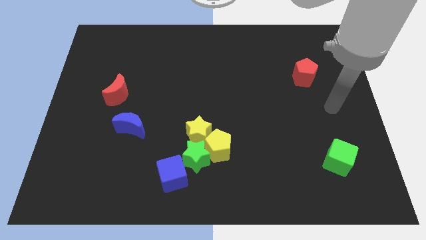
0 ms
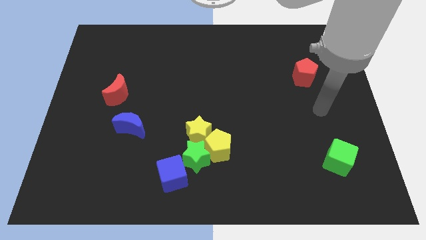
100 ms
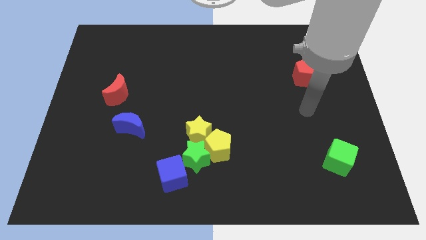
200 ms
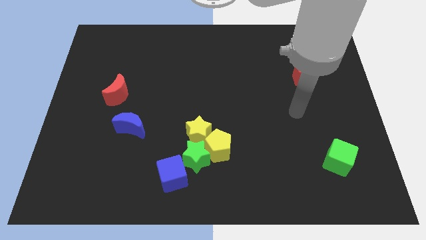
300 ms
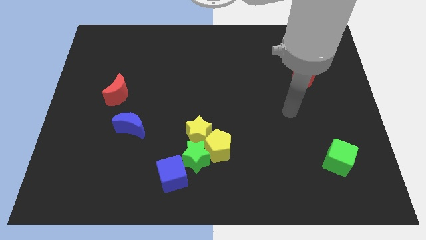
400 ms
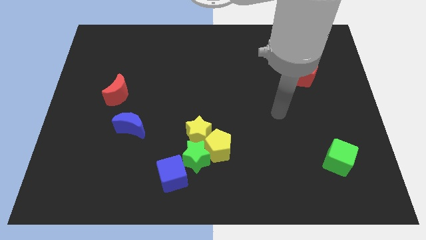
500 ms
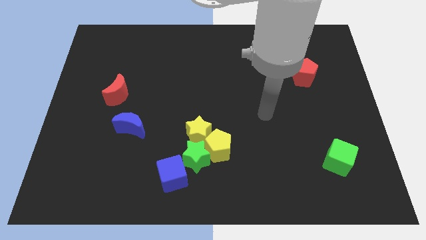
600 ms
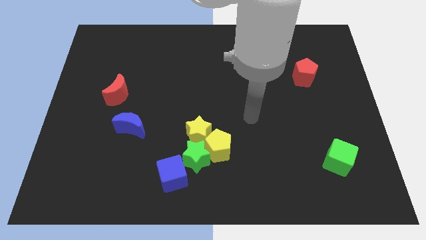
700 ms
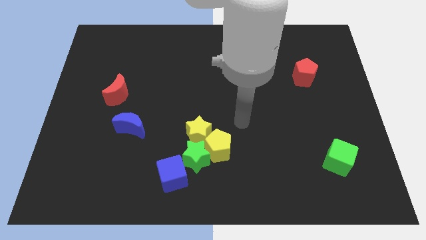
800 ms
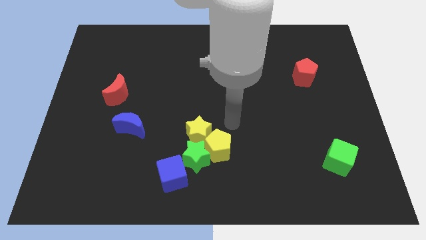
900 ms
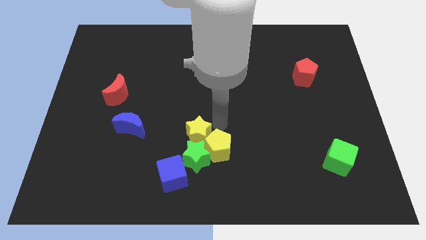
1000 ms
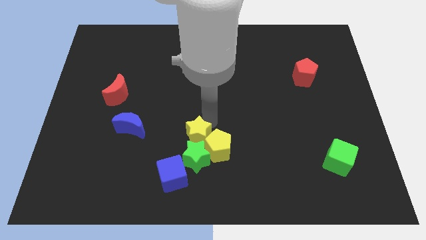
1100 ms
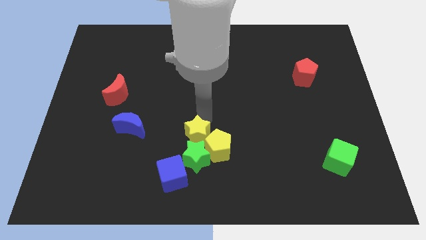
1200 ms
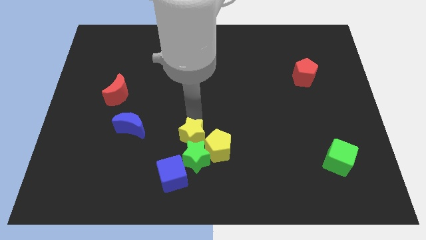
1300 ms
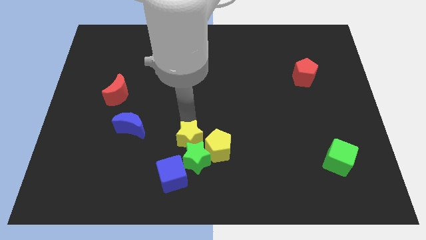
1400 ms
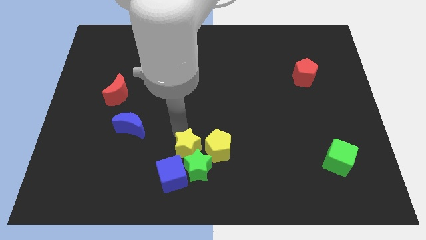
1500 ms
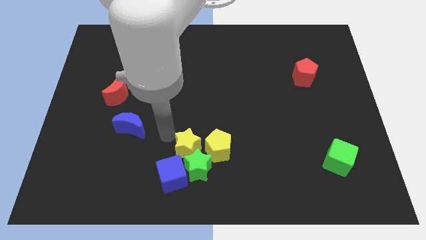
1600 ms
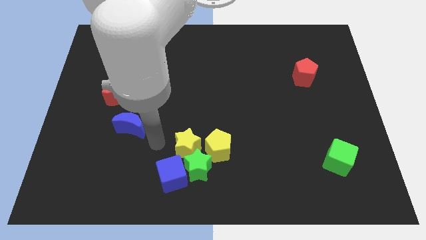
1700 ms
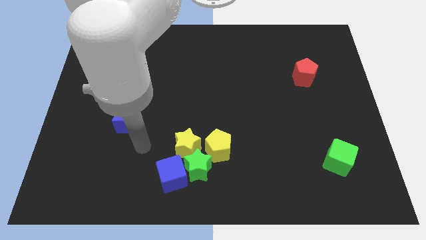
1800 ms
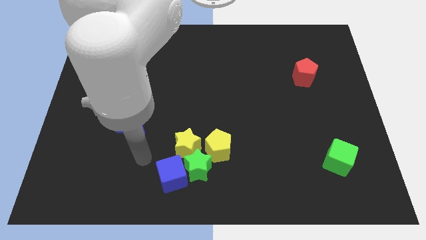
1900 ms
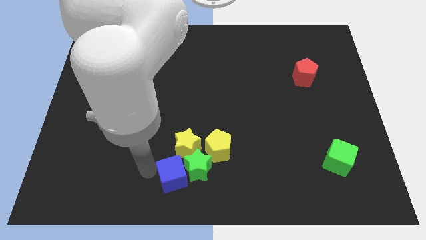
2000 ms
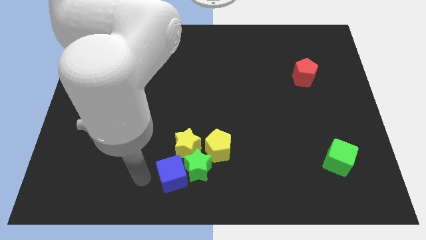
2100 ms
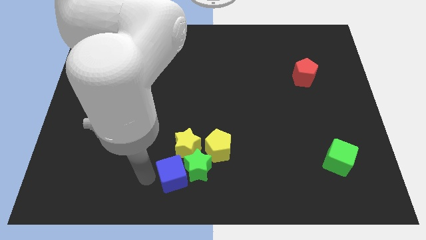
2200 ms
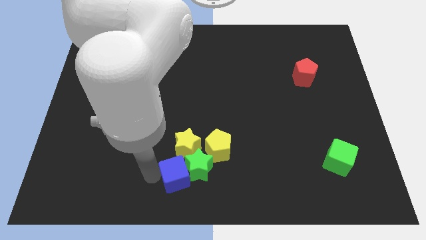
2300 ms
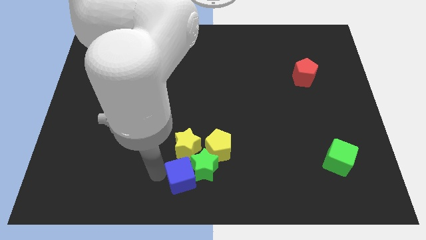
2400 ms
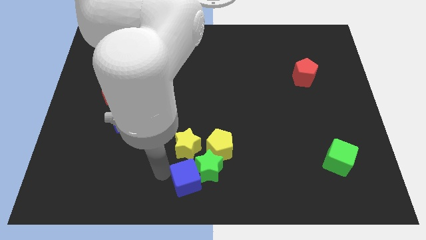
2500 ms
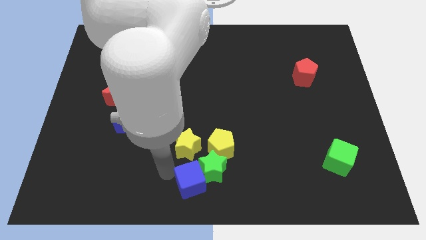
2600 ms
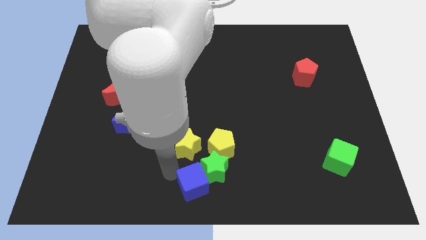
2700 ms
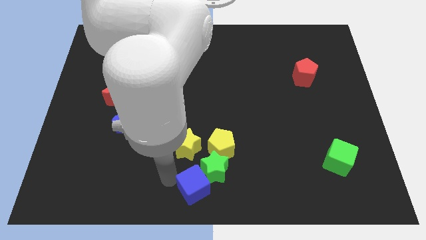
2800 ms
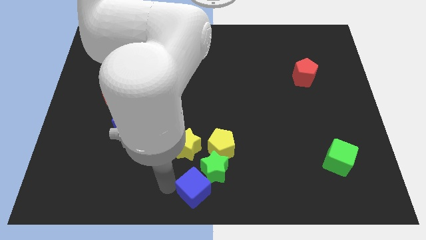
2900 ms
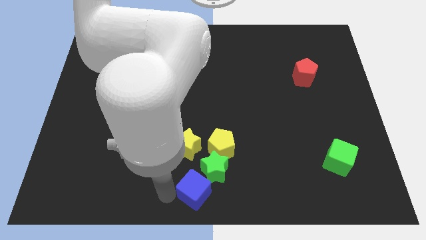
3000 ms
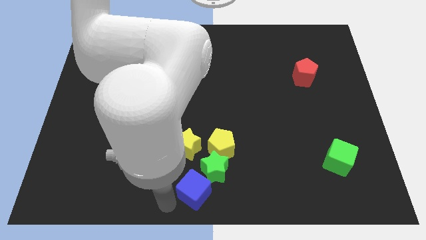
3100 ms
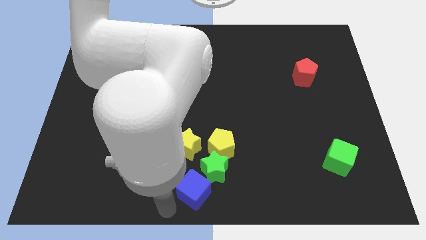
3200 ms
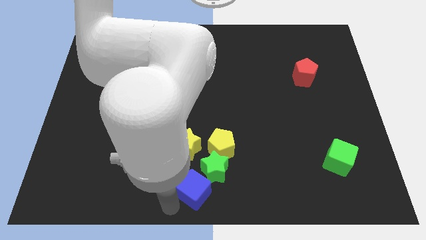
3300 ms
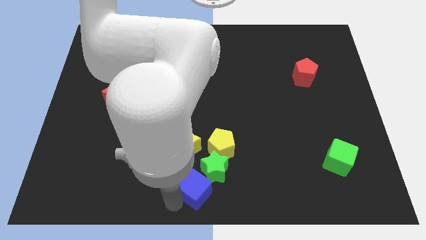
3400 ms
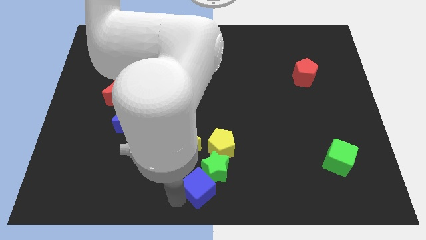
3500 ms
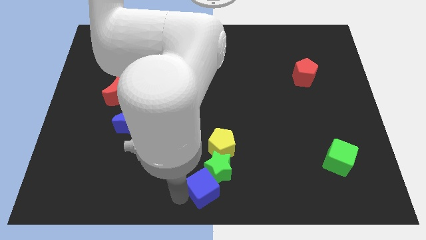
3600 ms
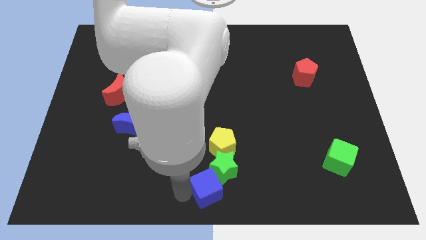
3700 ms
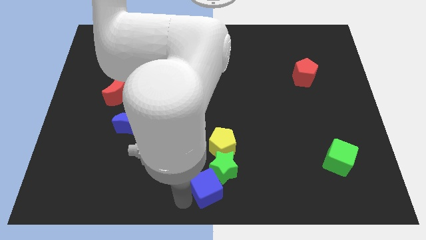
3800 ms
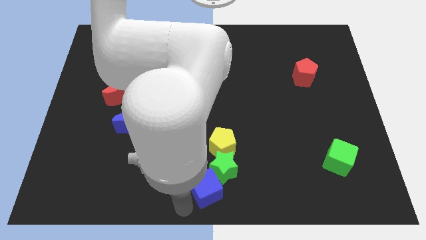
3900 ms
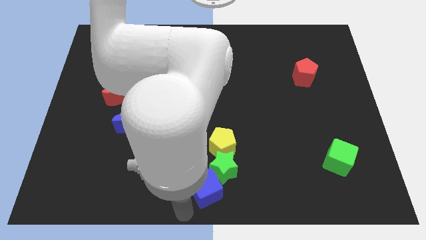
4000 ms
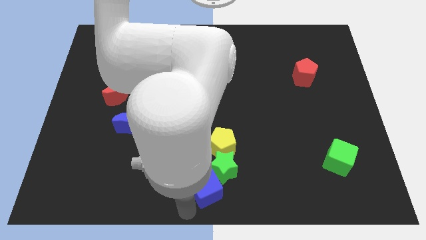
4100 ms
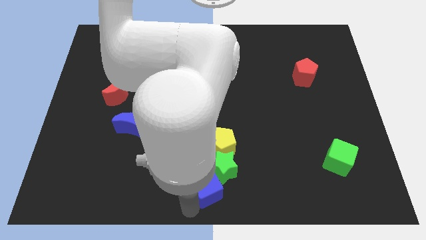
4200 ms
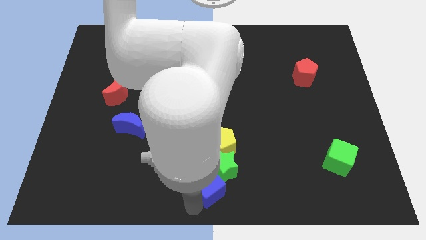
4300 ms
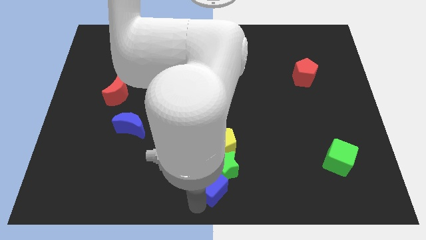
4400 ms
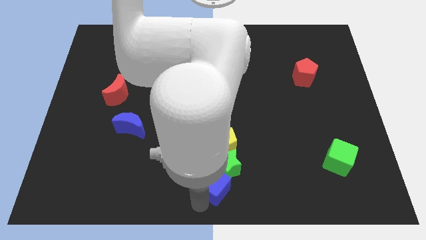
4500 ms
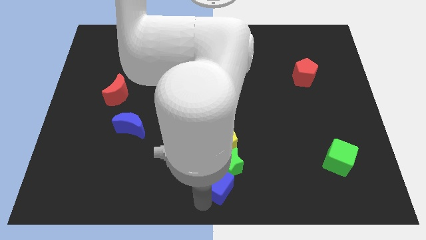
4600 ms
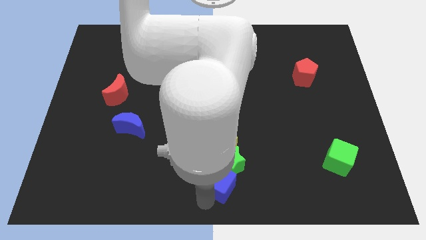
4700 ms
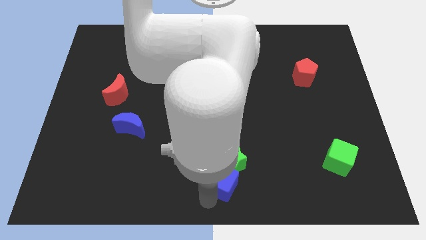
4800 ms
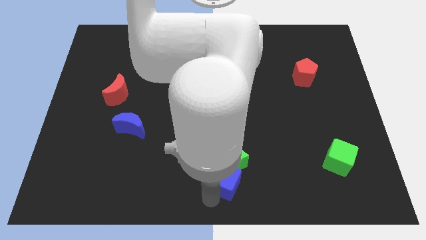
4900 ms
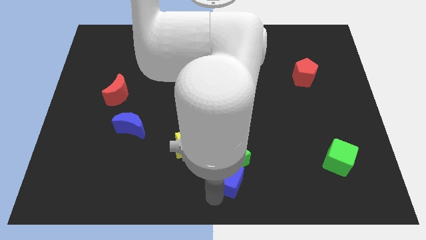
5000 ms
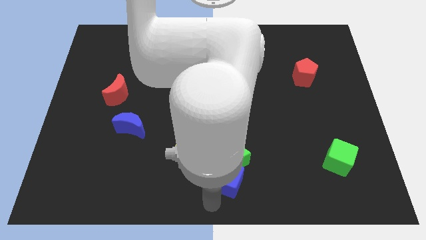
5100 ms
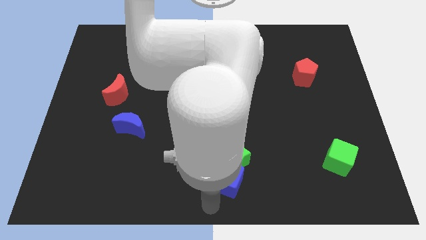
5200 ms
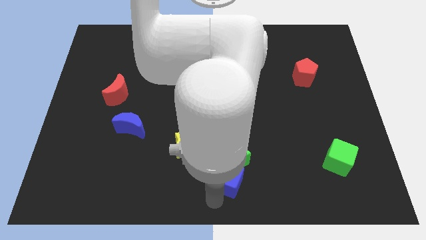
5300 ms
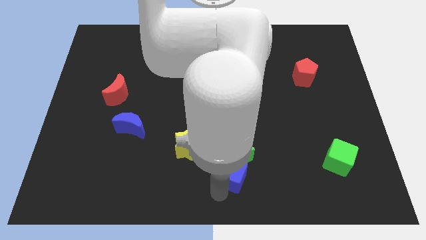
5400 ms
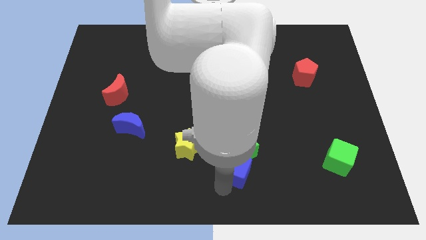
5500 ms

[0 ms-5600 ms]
slightly push the blue cube upwards and then right

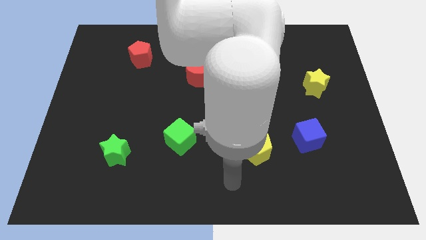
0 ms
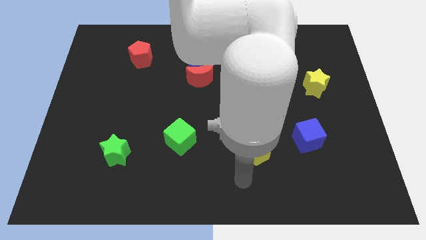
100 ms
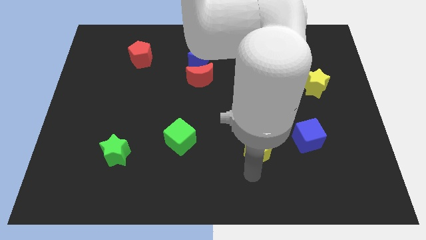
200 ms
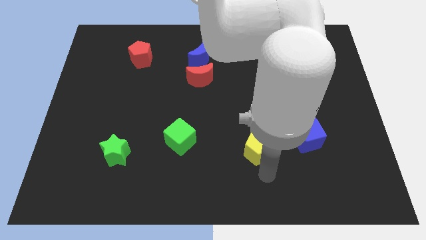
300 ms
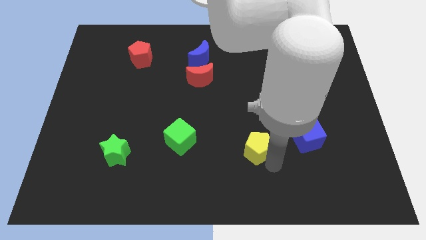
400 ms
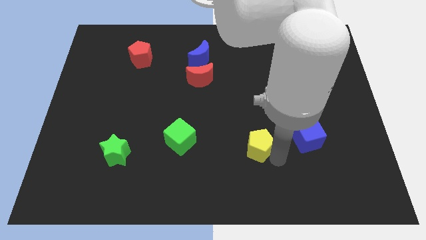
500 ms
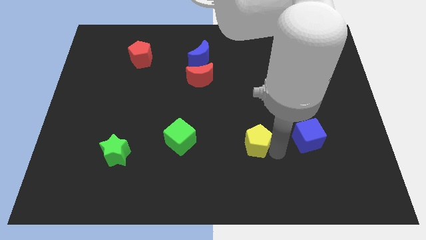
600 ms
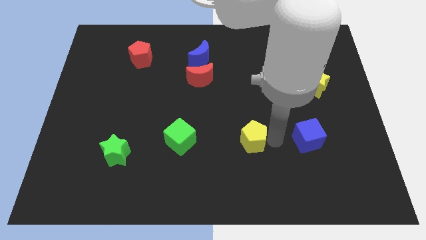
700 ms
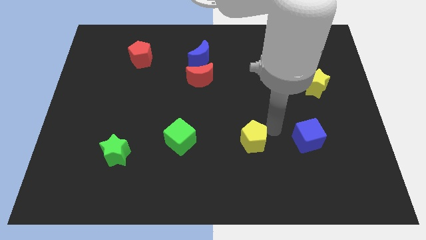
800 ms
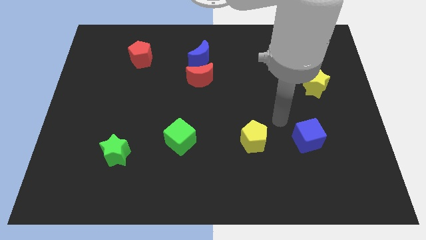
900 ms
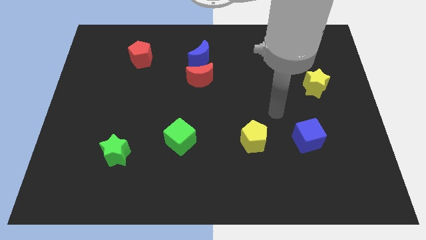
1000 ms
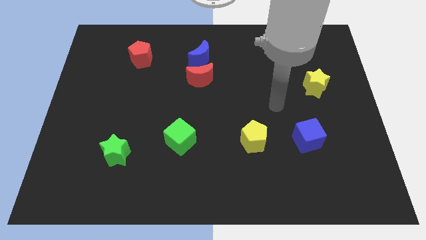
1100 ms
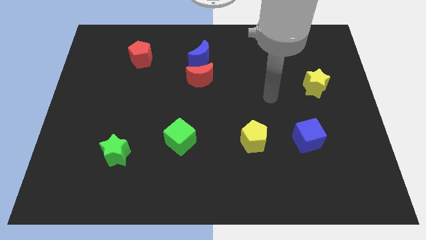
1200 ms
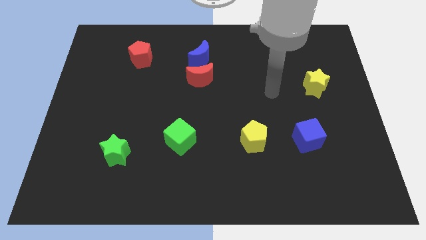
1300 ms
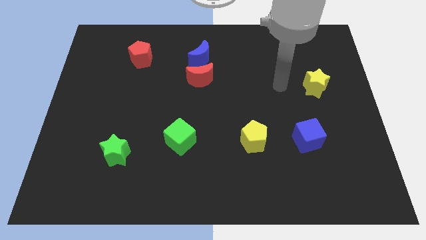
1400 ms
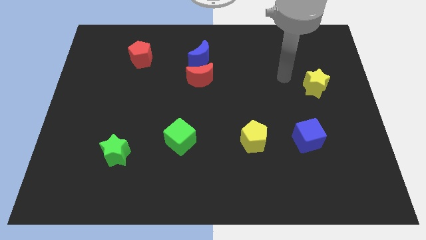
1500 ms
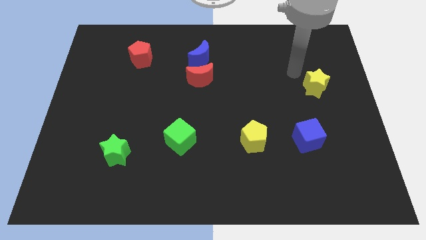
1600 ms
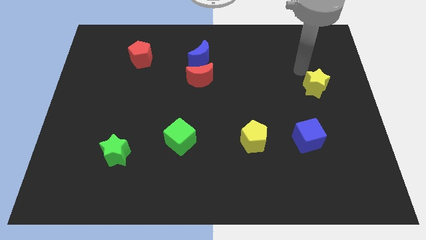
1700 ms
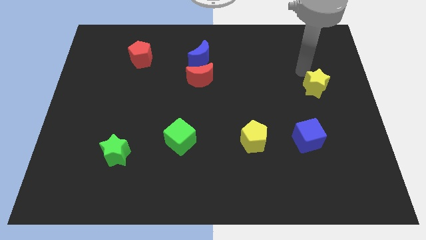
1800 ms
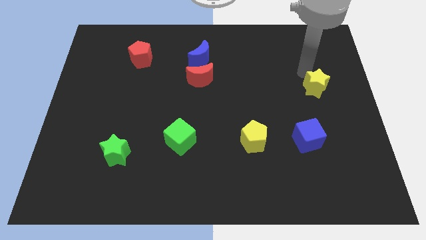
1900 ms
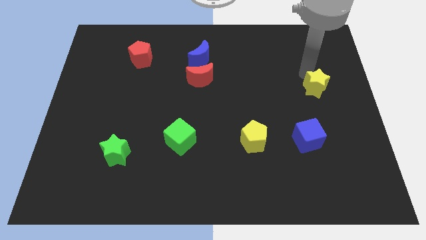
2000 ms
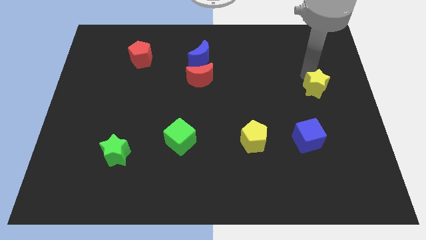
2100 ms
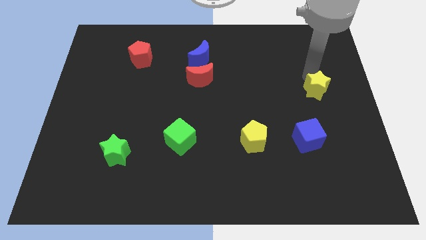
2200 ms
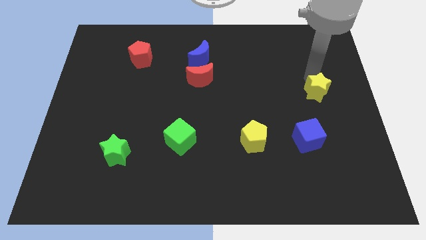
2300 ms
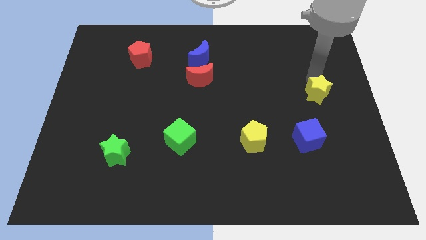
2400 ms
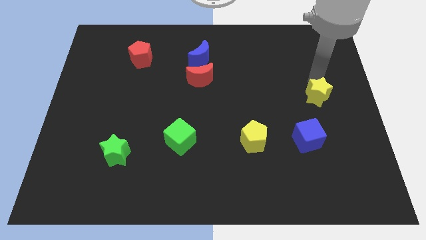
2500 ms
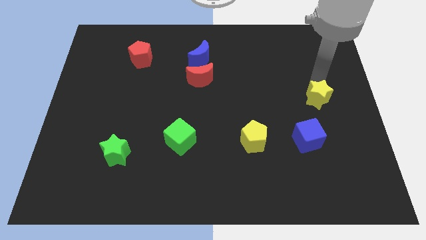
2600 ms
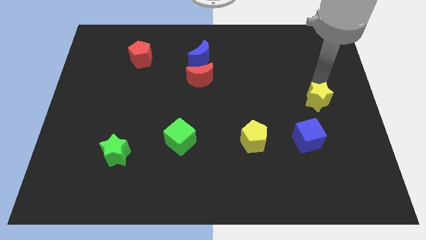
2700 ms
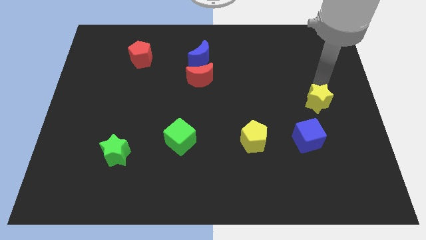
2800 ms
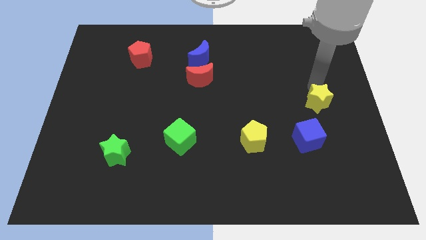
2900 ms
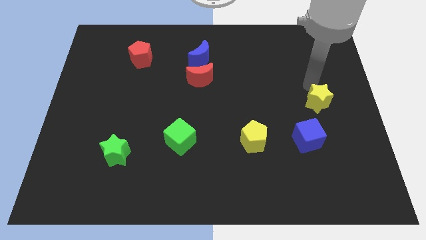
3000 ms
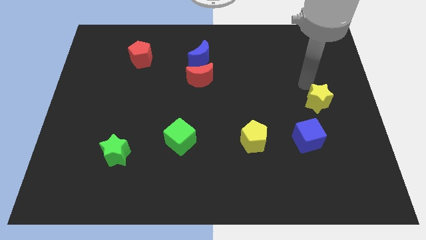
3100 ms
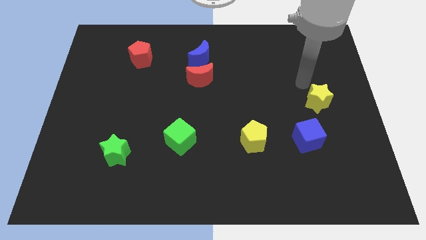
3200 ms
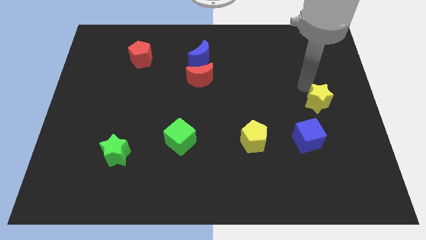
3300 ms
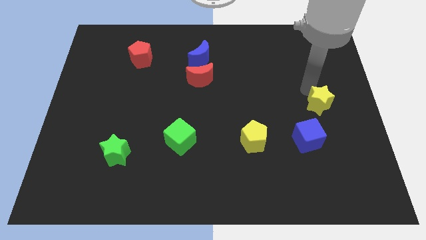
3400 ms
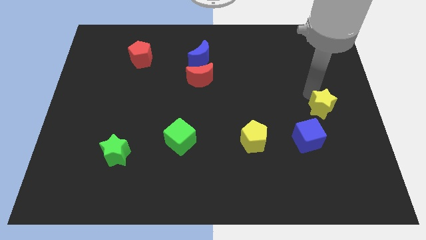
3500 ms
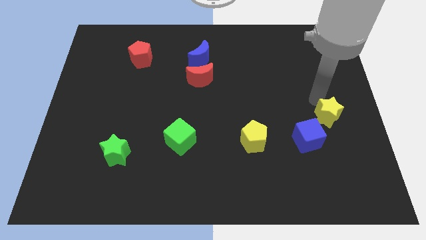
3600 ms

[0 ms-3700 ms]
move the yellow star somewhat down
